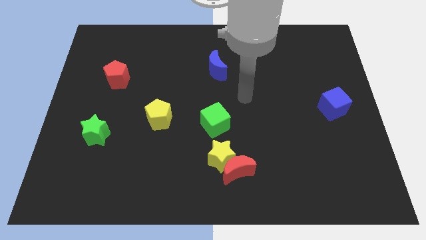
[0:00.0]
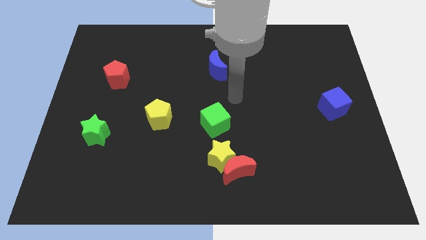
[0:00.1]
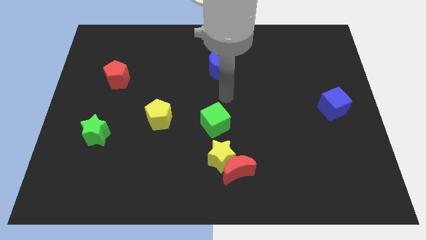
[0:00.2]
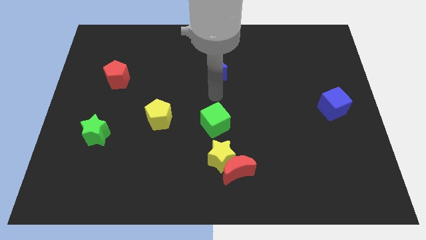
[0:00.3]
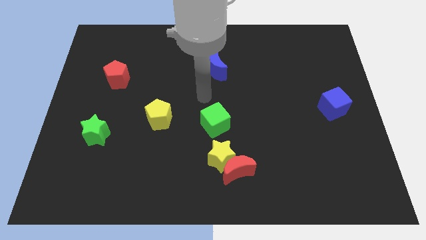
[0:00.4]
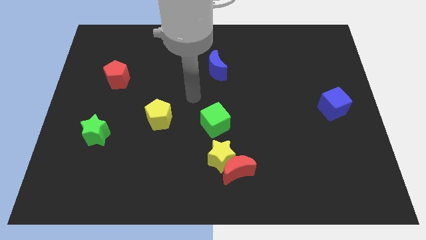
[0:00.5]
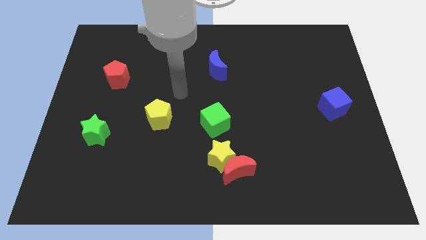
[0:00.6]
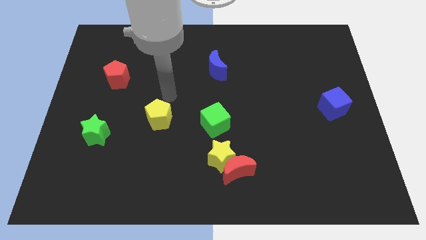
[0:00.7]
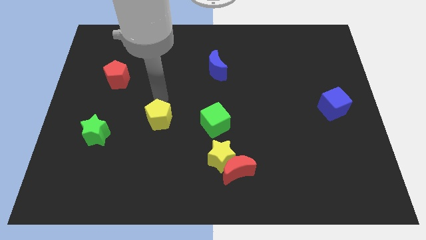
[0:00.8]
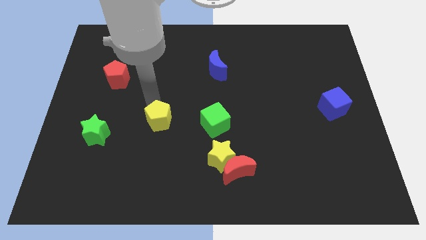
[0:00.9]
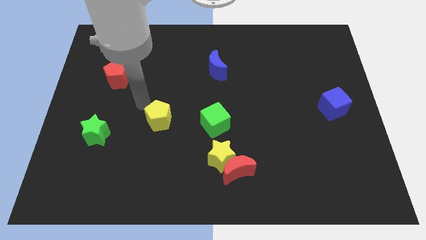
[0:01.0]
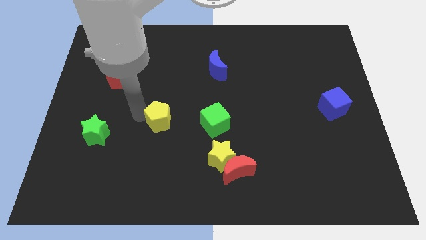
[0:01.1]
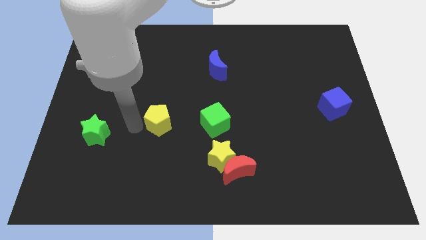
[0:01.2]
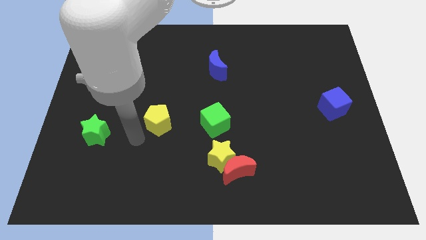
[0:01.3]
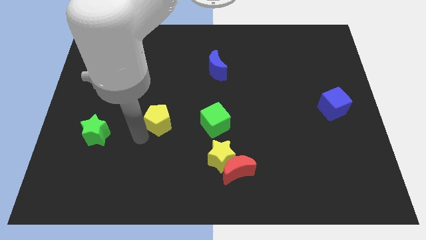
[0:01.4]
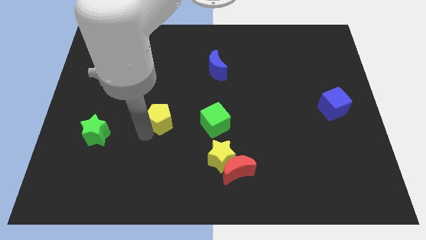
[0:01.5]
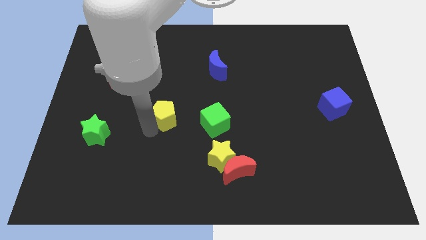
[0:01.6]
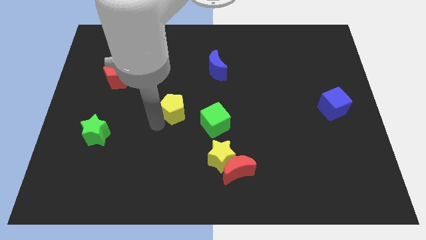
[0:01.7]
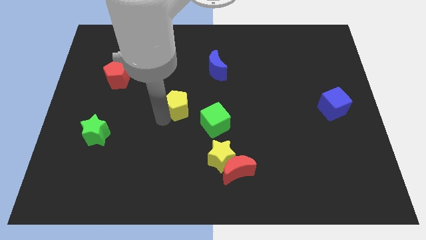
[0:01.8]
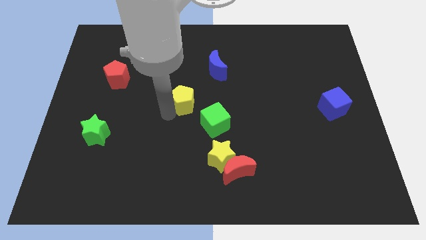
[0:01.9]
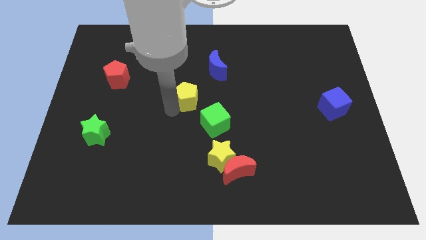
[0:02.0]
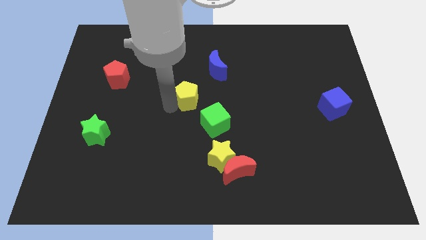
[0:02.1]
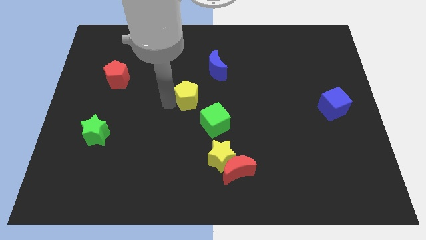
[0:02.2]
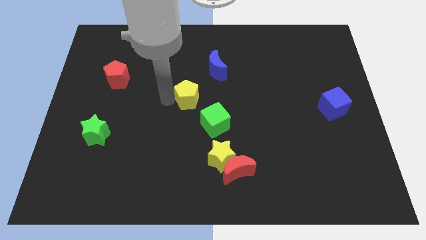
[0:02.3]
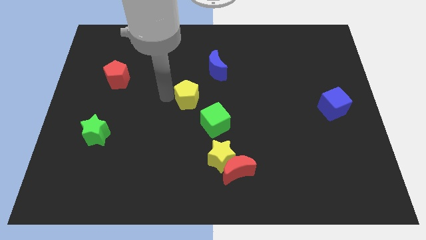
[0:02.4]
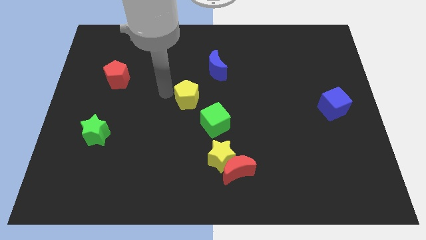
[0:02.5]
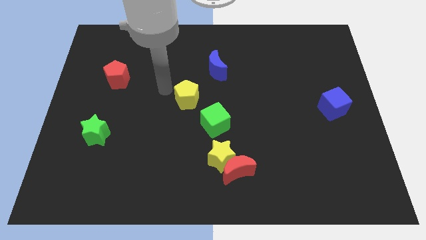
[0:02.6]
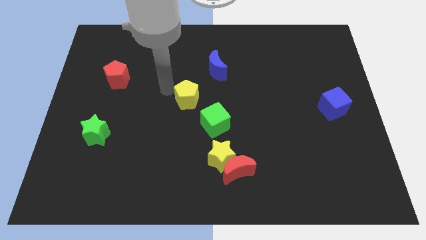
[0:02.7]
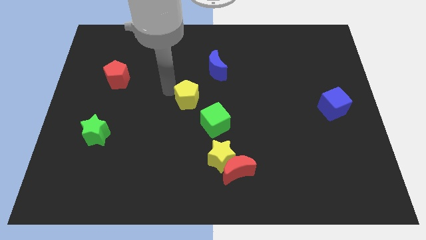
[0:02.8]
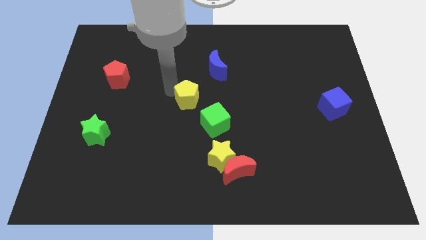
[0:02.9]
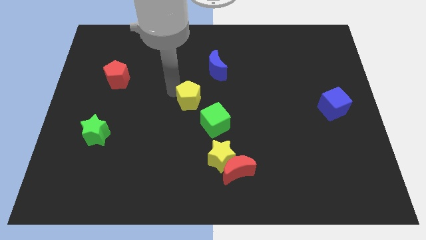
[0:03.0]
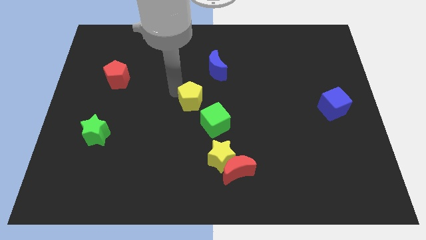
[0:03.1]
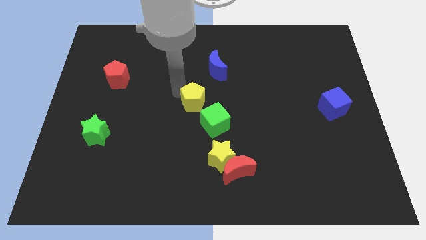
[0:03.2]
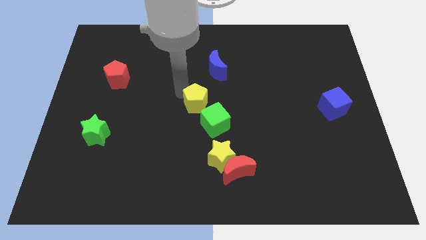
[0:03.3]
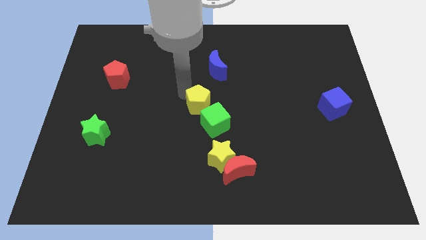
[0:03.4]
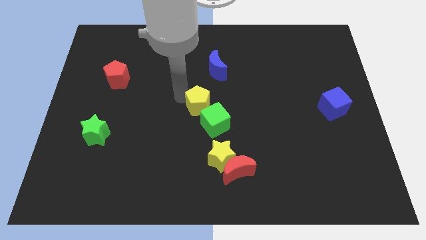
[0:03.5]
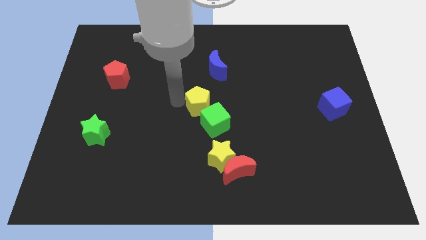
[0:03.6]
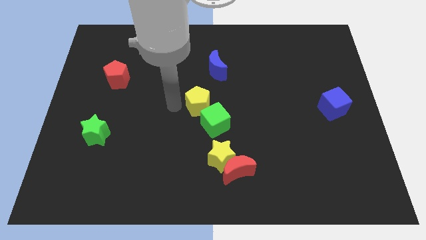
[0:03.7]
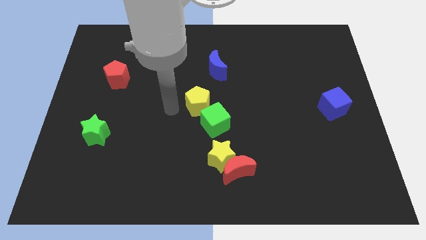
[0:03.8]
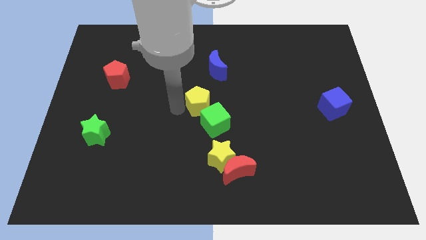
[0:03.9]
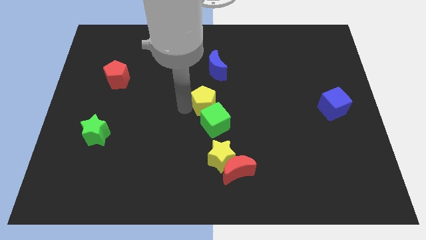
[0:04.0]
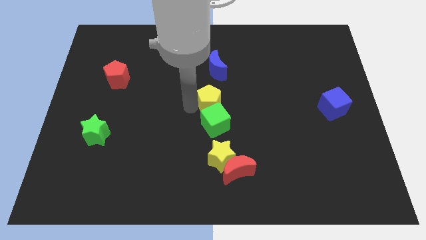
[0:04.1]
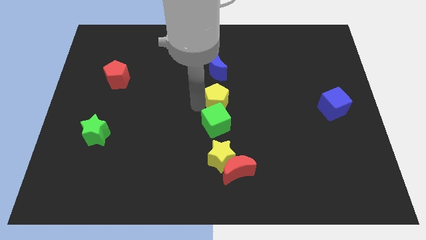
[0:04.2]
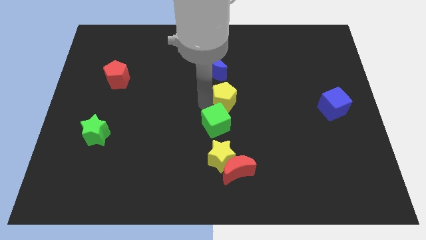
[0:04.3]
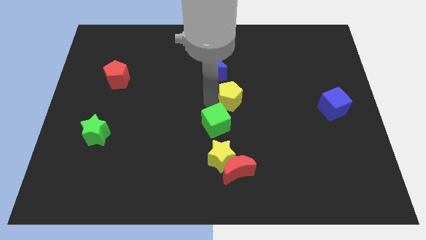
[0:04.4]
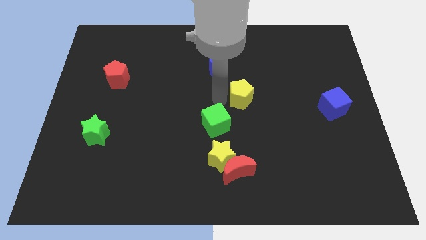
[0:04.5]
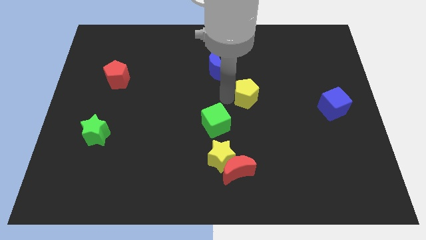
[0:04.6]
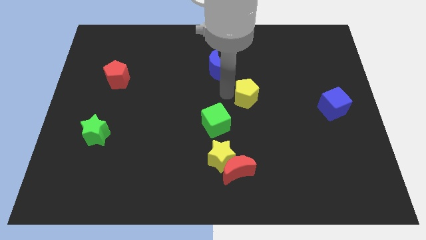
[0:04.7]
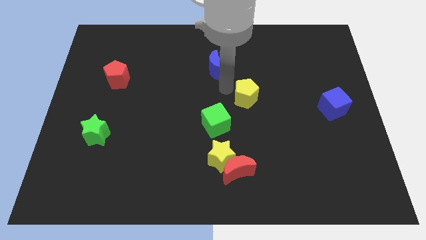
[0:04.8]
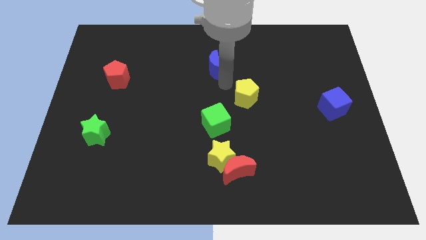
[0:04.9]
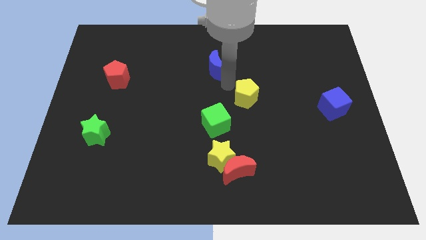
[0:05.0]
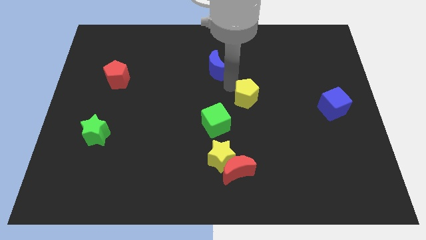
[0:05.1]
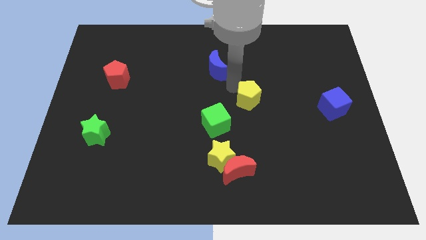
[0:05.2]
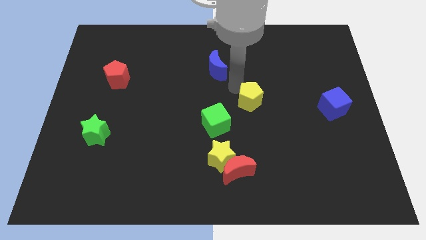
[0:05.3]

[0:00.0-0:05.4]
move the yellow pentagon right

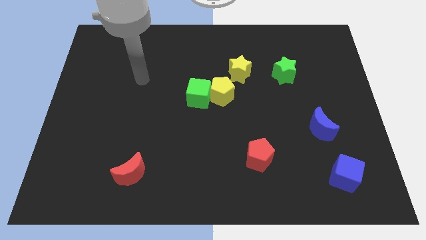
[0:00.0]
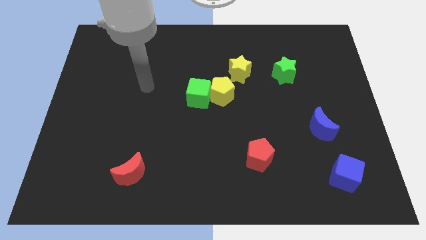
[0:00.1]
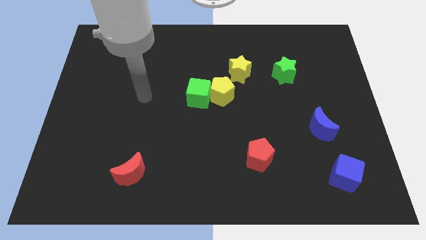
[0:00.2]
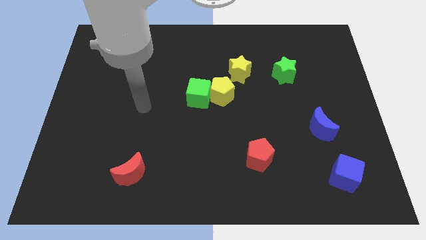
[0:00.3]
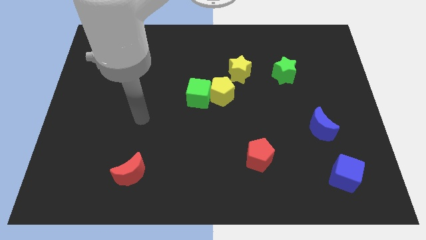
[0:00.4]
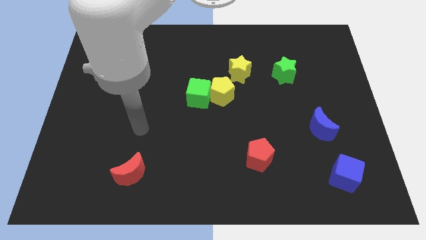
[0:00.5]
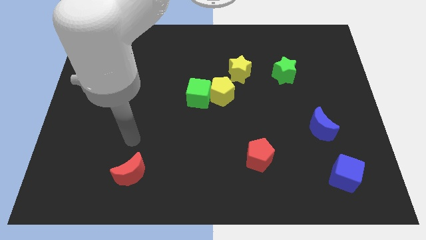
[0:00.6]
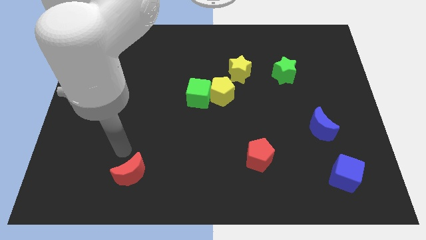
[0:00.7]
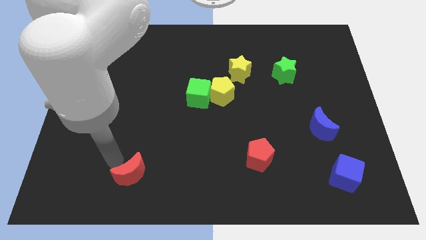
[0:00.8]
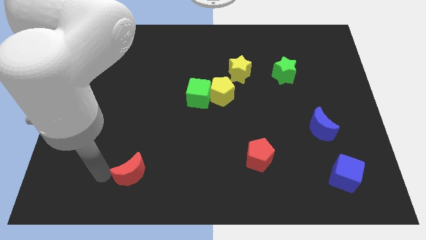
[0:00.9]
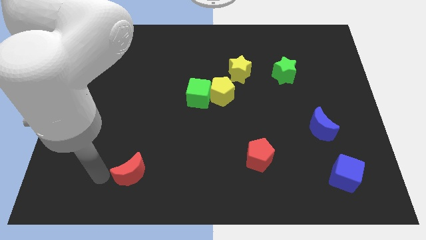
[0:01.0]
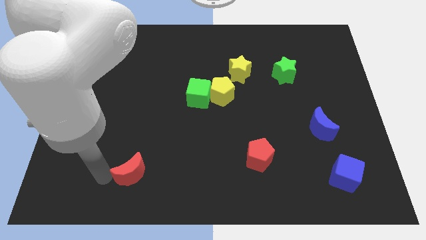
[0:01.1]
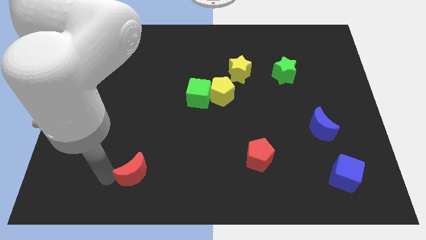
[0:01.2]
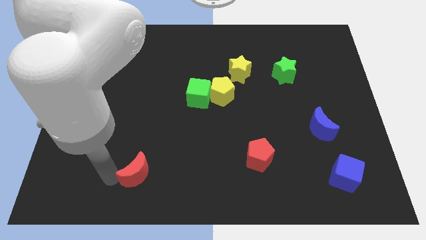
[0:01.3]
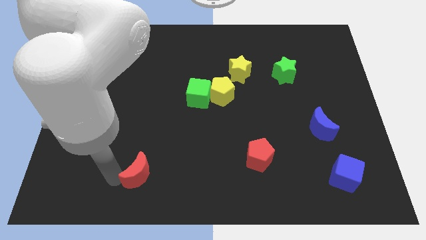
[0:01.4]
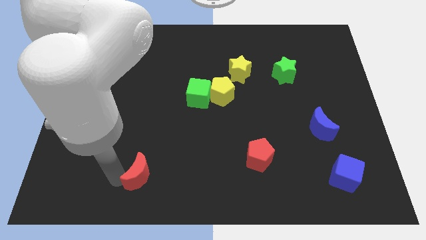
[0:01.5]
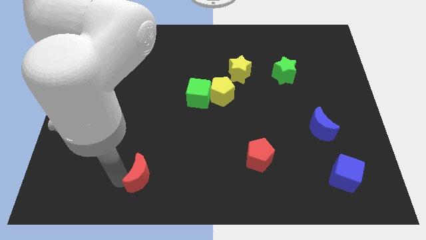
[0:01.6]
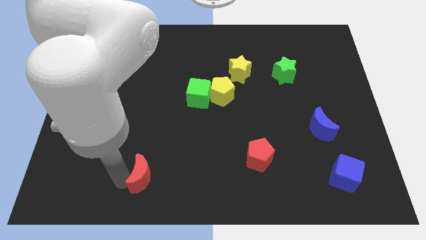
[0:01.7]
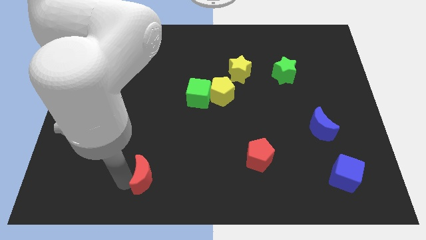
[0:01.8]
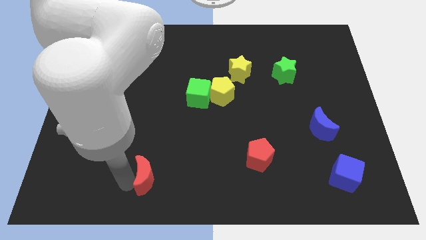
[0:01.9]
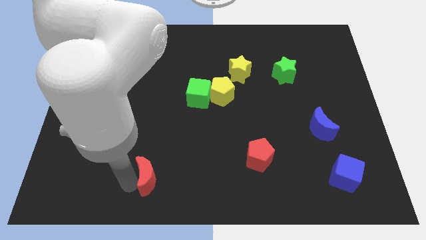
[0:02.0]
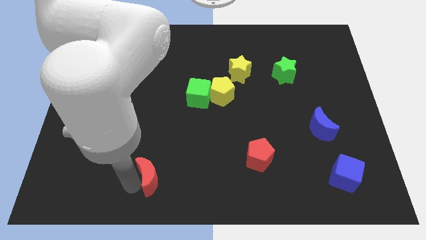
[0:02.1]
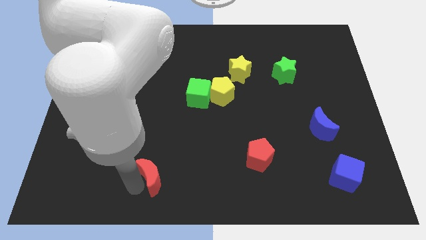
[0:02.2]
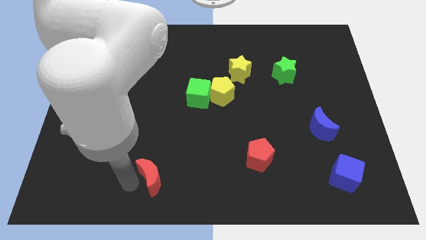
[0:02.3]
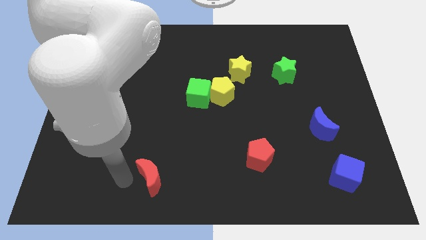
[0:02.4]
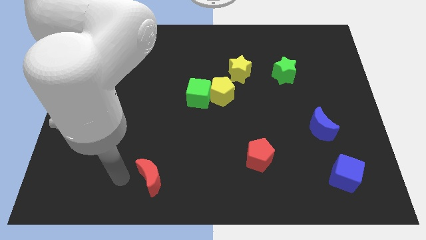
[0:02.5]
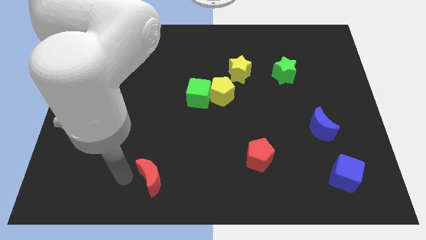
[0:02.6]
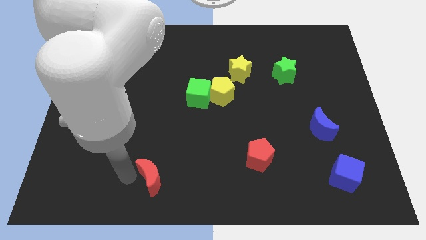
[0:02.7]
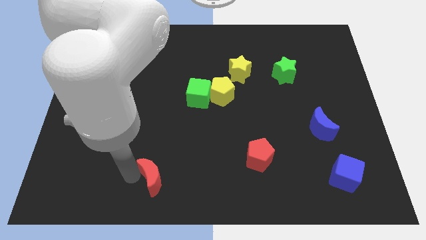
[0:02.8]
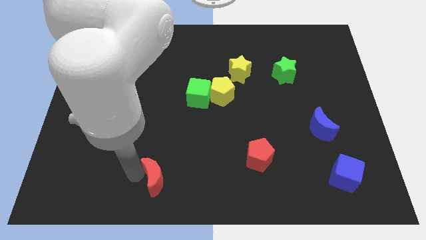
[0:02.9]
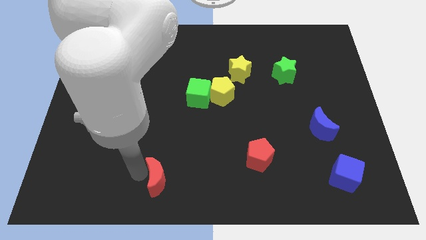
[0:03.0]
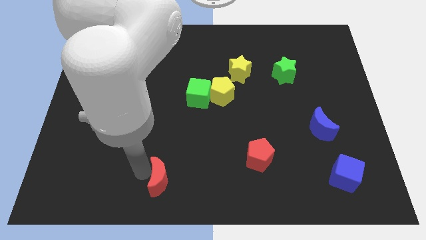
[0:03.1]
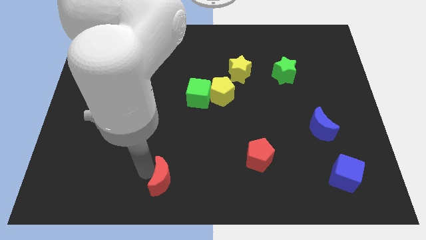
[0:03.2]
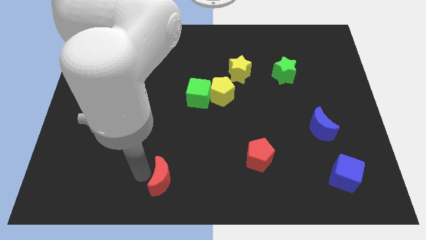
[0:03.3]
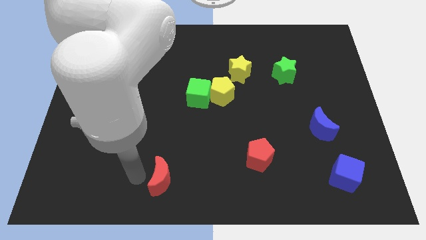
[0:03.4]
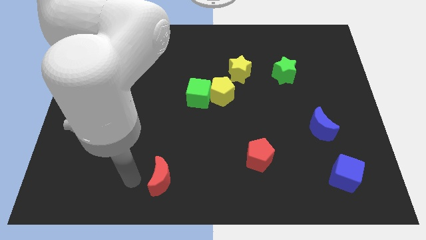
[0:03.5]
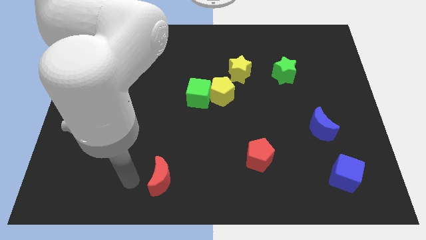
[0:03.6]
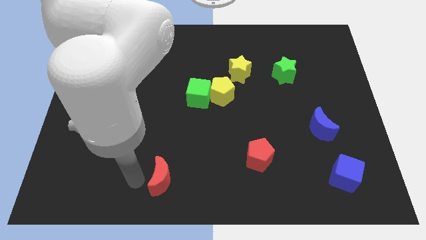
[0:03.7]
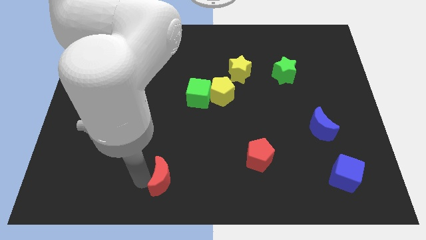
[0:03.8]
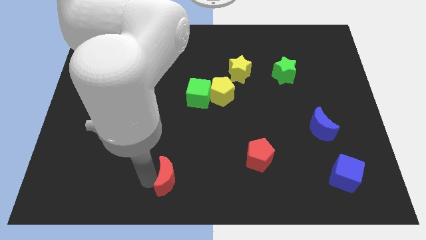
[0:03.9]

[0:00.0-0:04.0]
push the red moon right slightly
